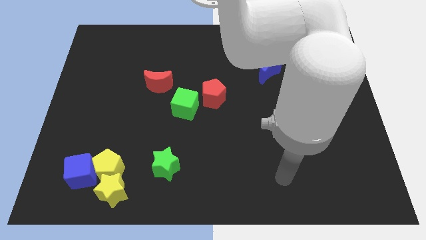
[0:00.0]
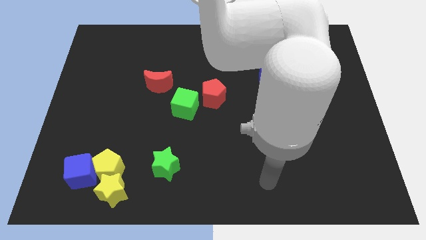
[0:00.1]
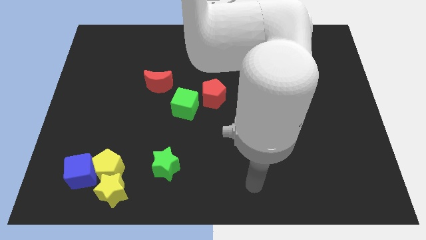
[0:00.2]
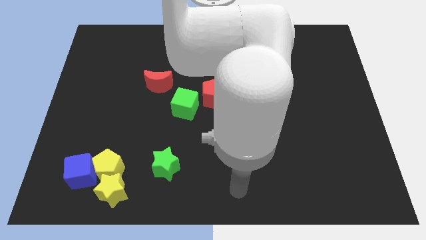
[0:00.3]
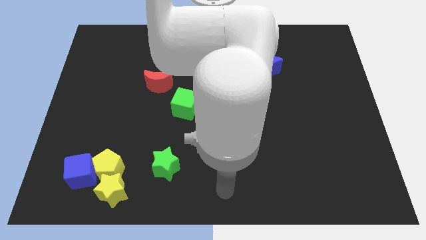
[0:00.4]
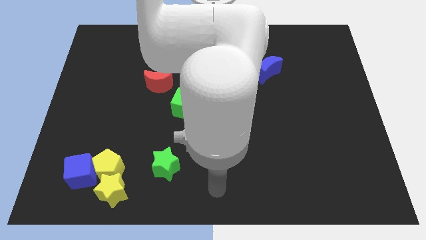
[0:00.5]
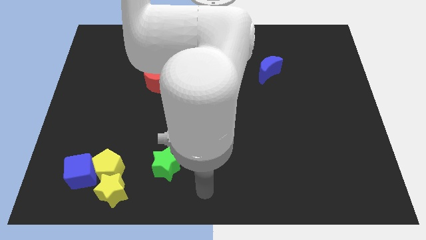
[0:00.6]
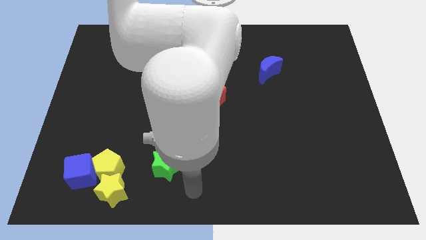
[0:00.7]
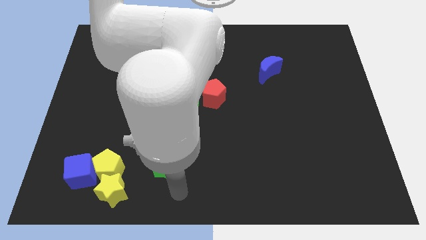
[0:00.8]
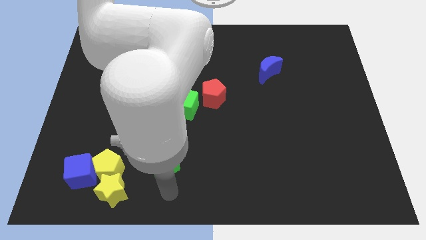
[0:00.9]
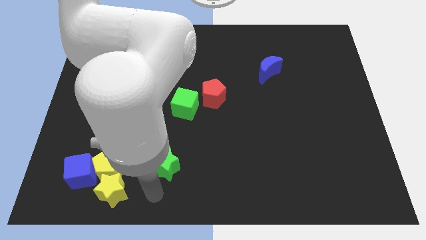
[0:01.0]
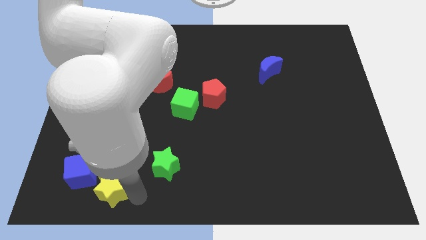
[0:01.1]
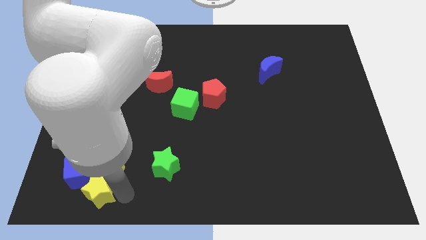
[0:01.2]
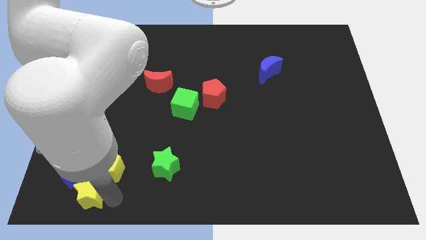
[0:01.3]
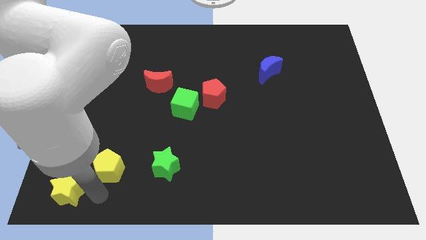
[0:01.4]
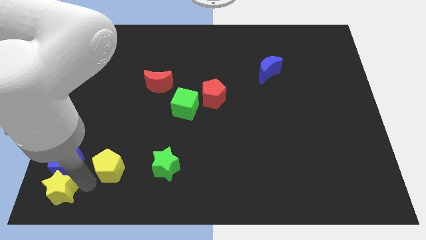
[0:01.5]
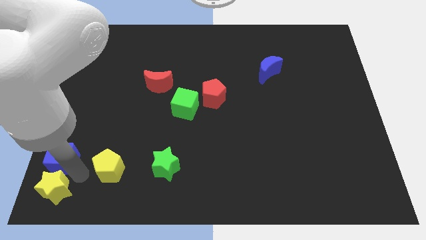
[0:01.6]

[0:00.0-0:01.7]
move the yellow pentagon away from the yellow star and blue cube

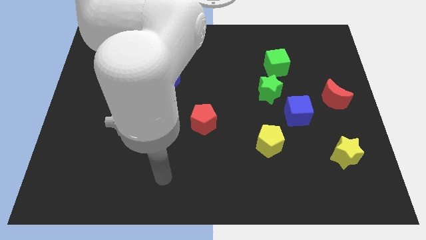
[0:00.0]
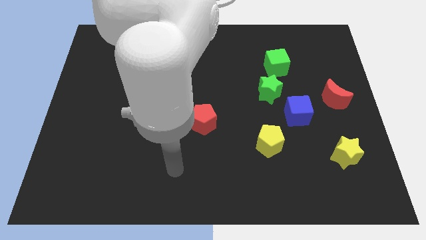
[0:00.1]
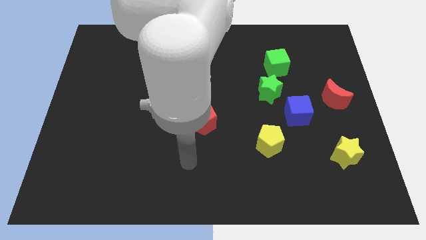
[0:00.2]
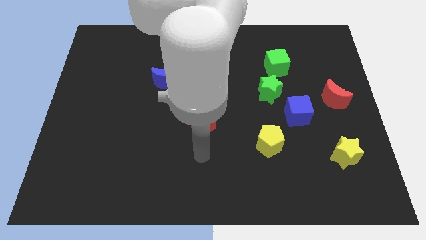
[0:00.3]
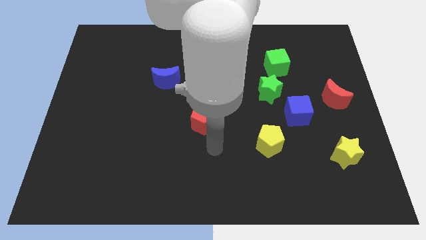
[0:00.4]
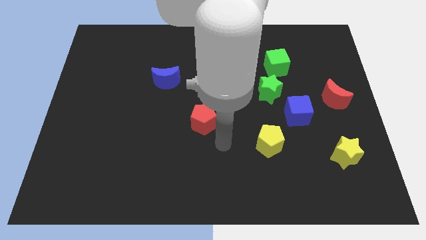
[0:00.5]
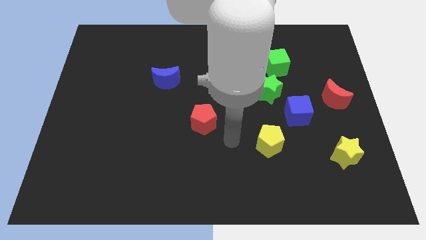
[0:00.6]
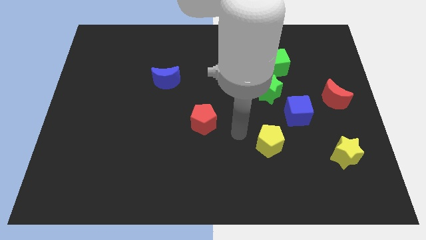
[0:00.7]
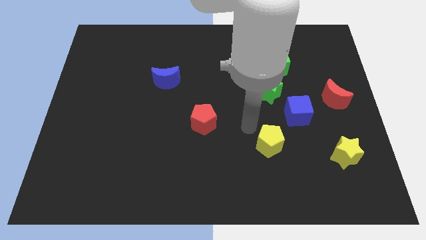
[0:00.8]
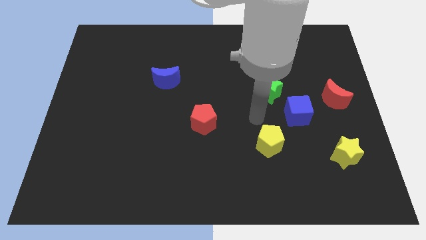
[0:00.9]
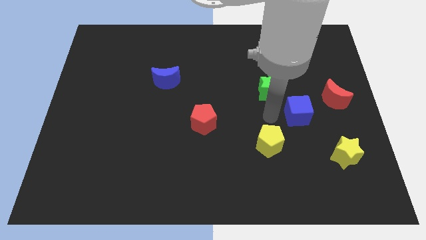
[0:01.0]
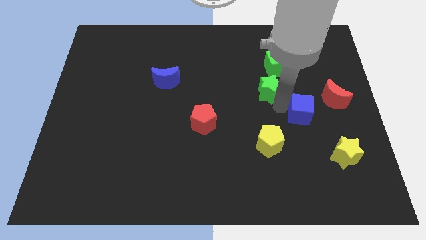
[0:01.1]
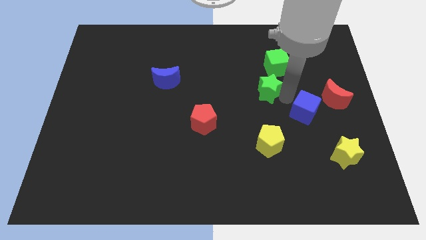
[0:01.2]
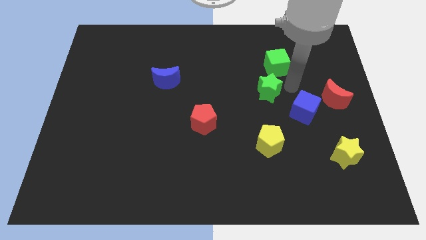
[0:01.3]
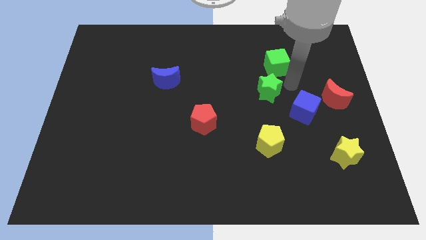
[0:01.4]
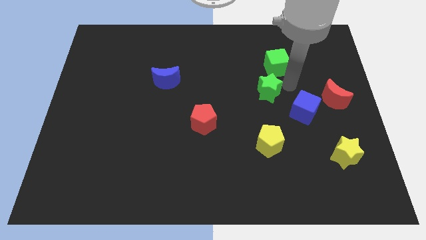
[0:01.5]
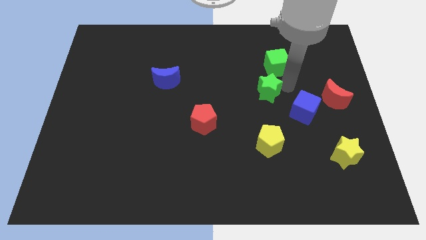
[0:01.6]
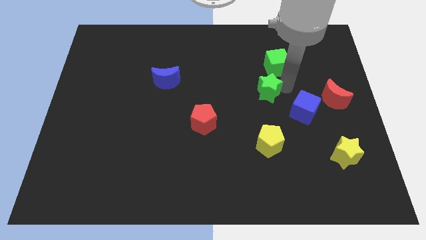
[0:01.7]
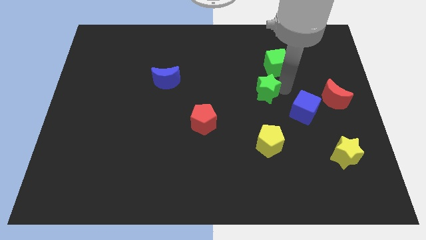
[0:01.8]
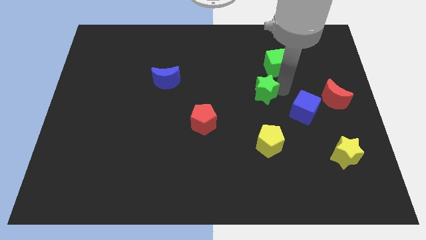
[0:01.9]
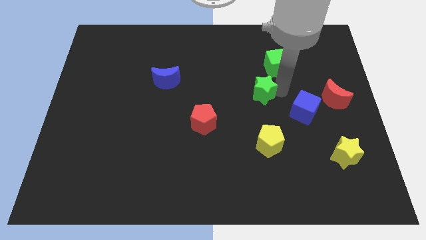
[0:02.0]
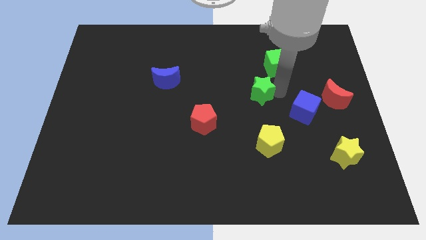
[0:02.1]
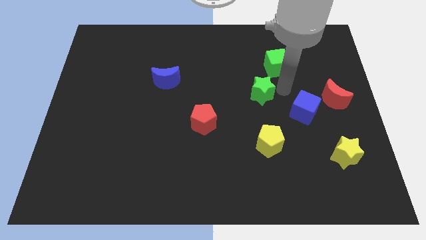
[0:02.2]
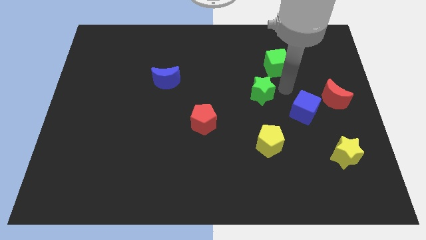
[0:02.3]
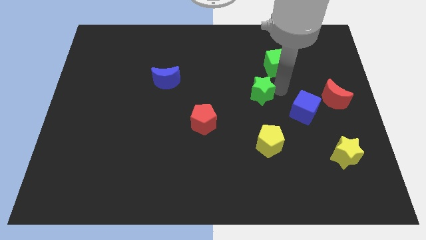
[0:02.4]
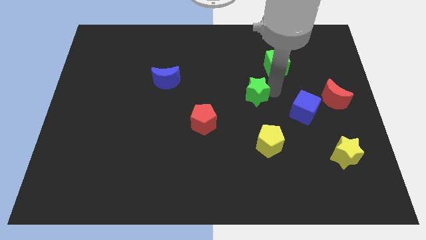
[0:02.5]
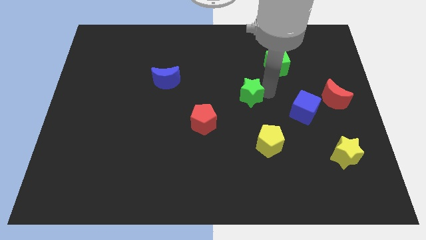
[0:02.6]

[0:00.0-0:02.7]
pull the green star apart from the blue cube and green cube

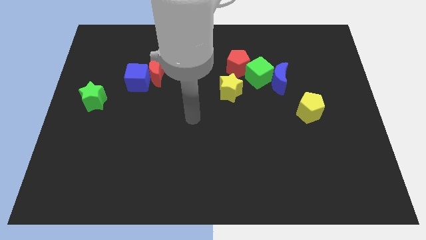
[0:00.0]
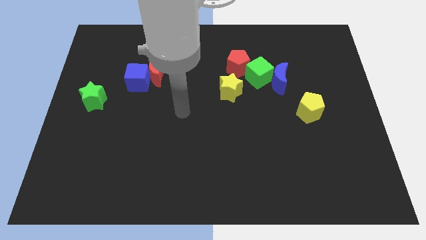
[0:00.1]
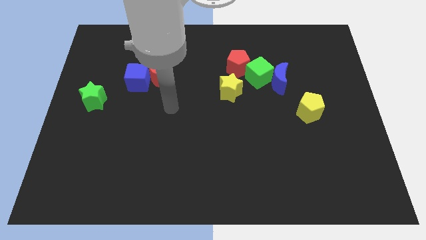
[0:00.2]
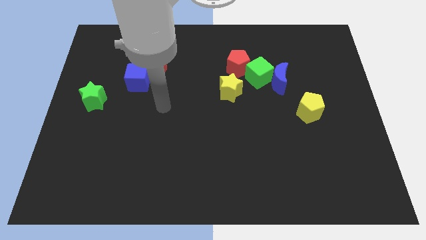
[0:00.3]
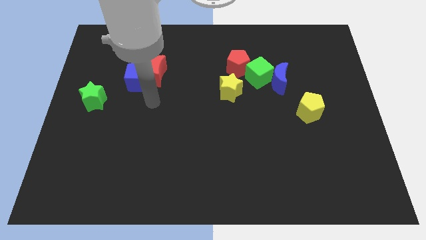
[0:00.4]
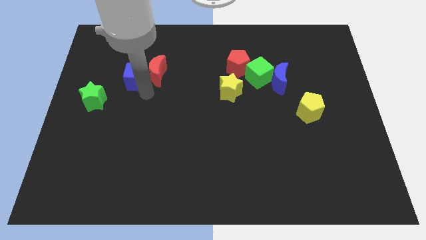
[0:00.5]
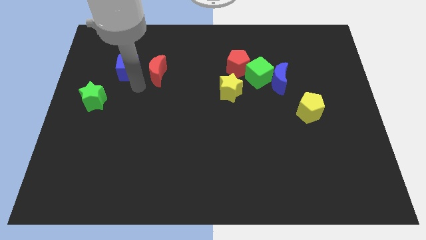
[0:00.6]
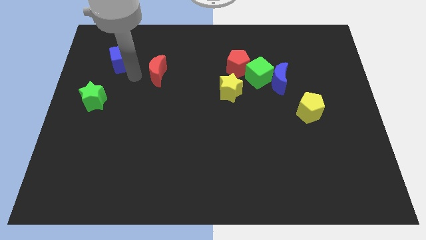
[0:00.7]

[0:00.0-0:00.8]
move the red moon away from the blue cube

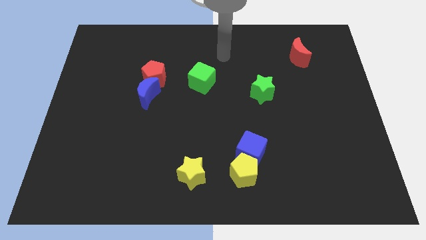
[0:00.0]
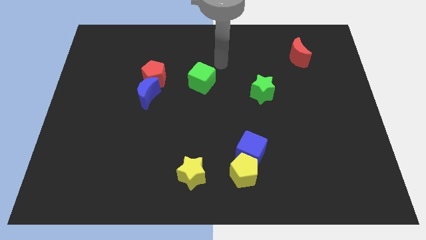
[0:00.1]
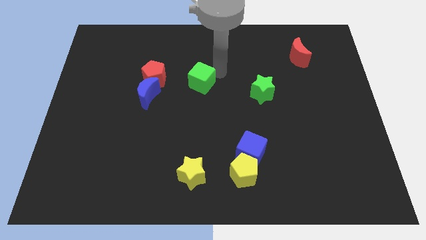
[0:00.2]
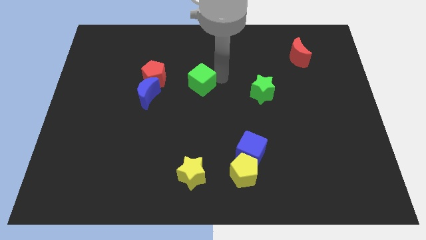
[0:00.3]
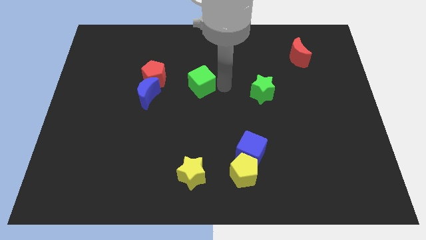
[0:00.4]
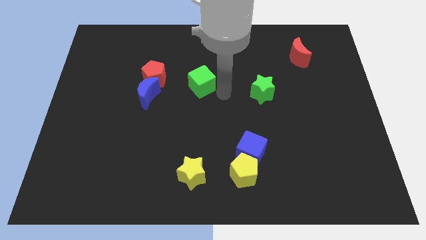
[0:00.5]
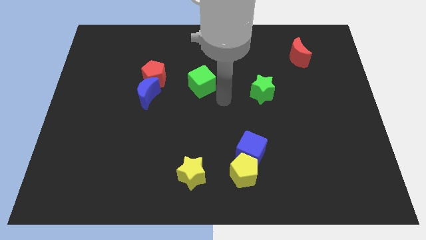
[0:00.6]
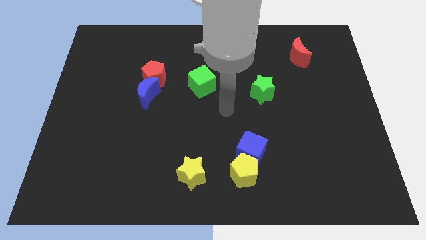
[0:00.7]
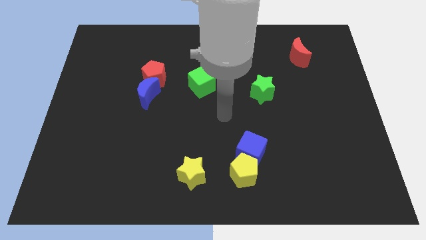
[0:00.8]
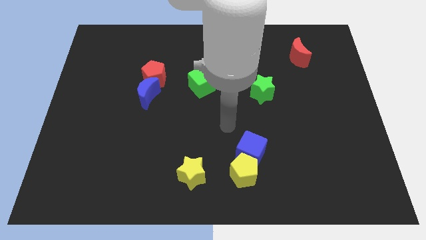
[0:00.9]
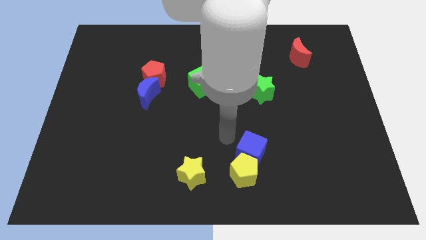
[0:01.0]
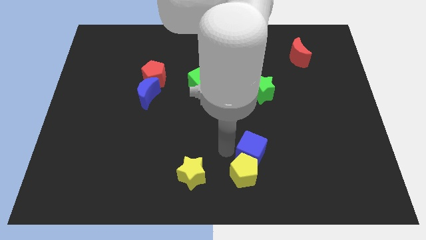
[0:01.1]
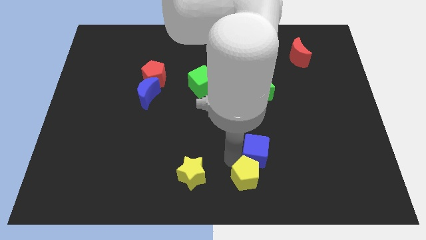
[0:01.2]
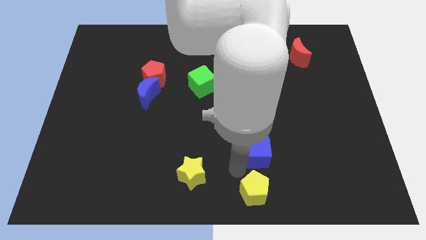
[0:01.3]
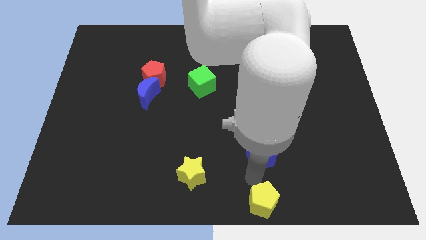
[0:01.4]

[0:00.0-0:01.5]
move the blue cube away from the yellow pentagon

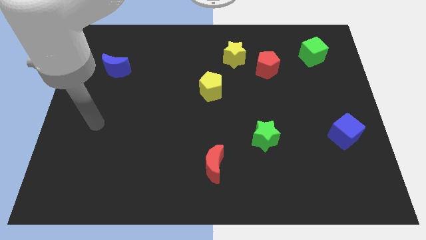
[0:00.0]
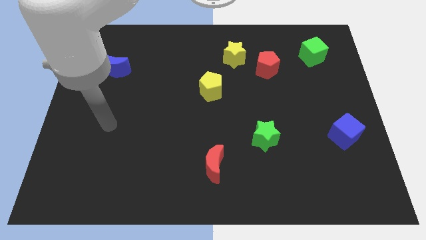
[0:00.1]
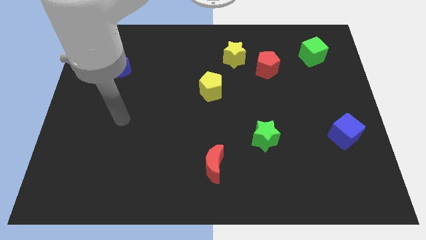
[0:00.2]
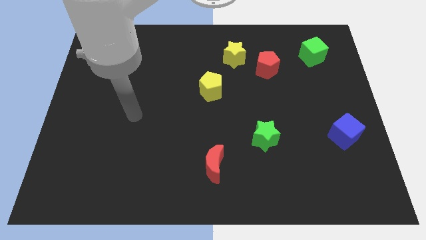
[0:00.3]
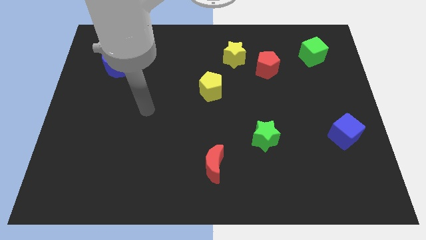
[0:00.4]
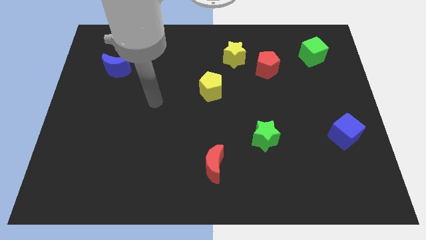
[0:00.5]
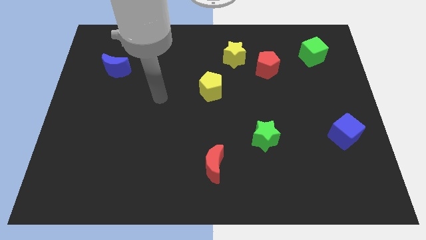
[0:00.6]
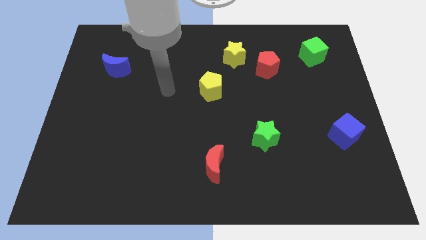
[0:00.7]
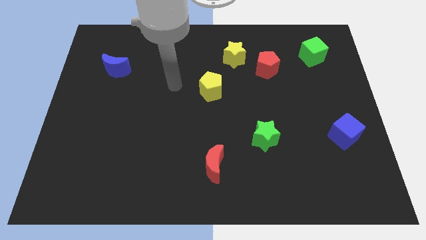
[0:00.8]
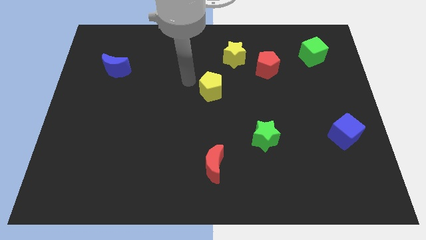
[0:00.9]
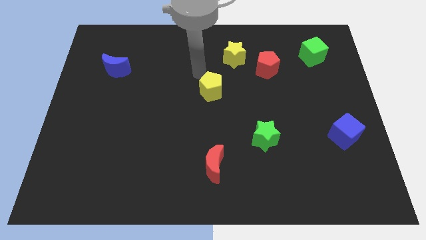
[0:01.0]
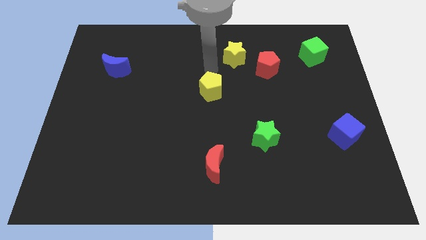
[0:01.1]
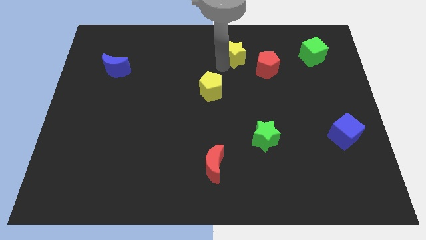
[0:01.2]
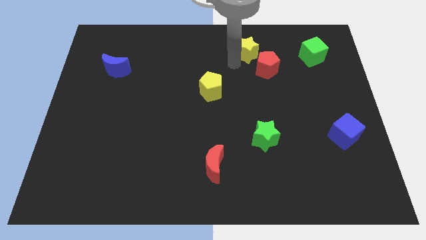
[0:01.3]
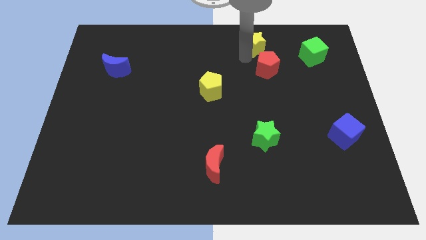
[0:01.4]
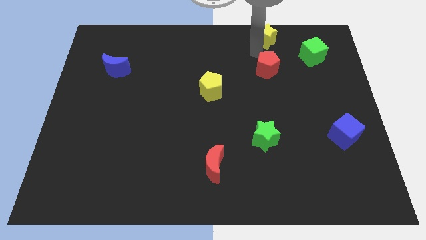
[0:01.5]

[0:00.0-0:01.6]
separate the red pentagon from the yellow star

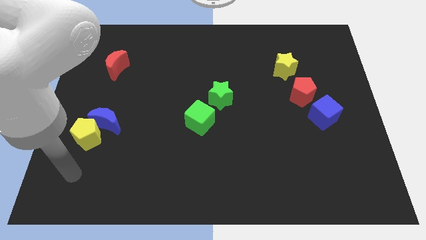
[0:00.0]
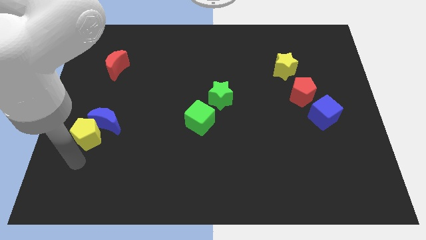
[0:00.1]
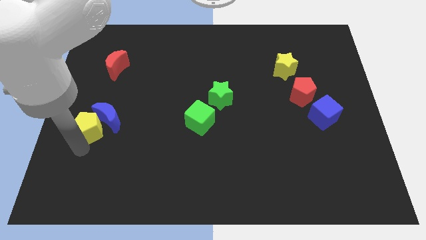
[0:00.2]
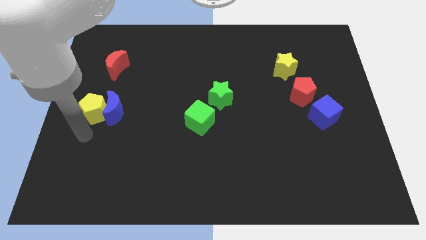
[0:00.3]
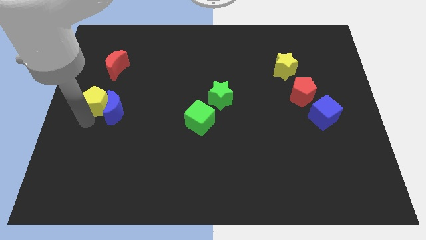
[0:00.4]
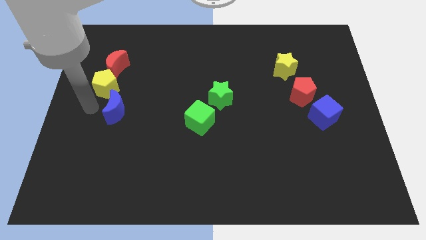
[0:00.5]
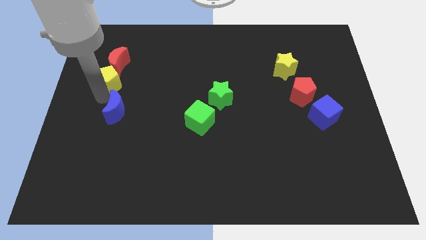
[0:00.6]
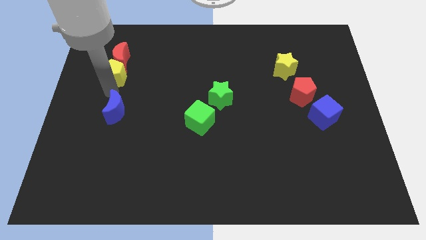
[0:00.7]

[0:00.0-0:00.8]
move the blue moon away from the yellow pentagon

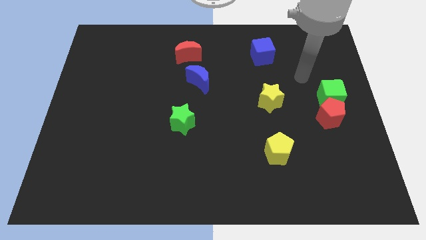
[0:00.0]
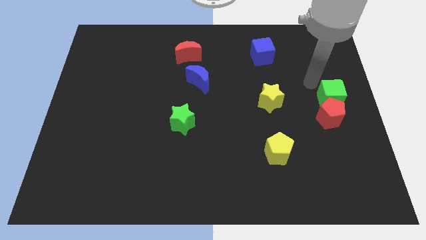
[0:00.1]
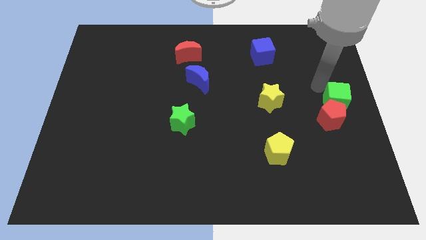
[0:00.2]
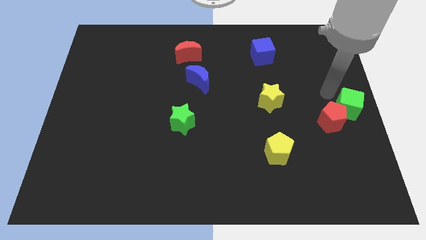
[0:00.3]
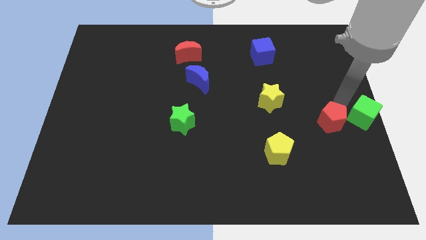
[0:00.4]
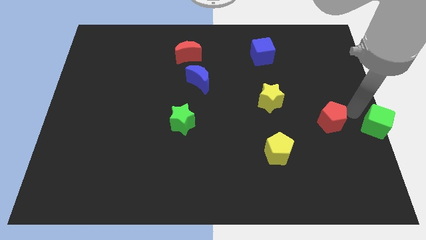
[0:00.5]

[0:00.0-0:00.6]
pull the red pentagon apart from the green cube
